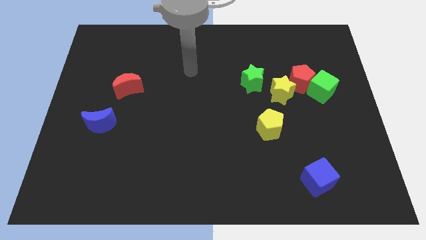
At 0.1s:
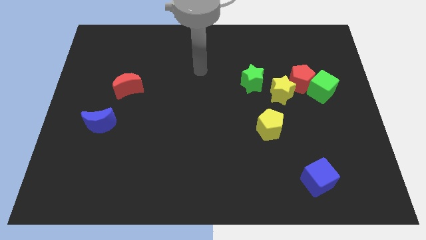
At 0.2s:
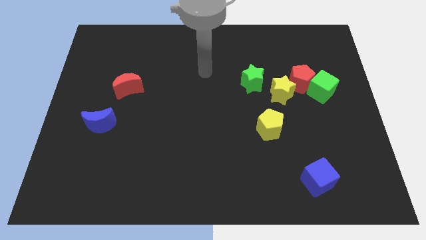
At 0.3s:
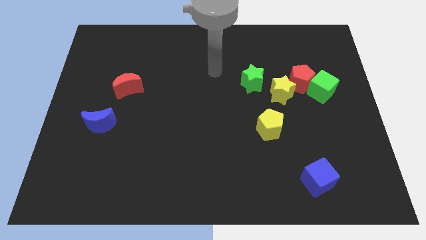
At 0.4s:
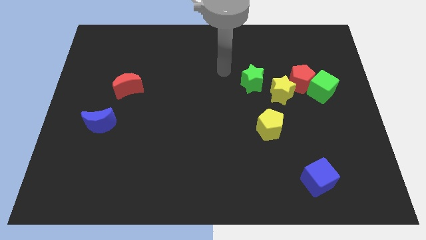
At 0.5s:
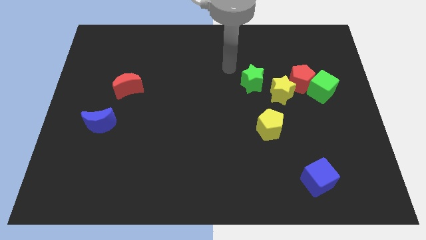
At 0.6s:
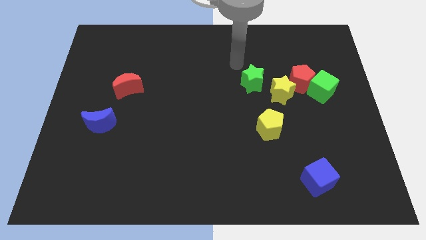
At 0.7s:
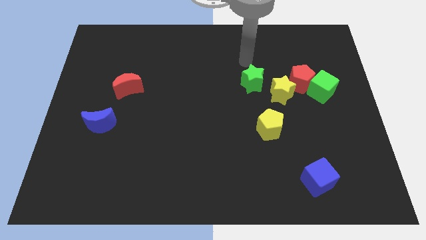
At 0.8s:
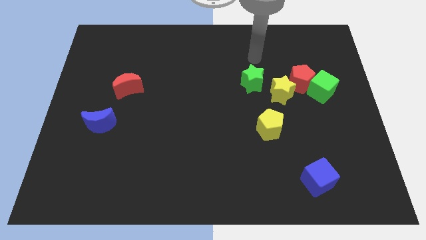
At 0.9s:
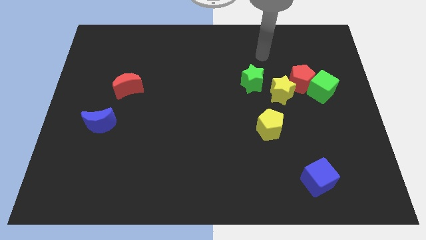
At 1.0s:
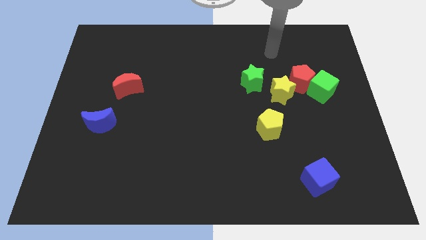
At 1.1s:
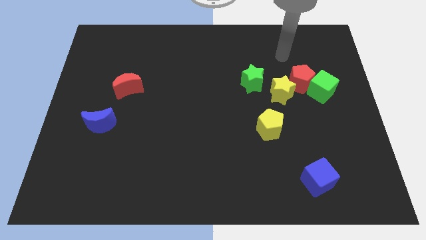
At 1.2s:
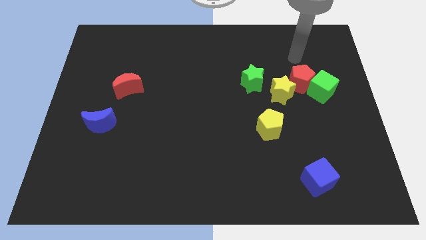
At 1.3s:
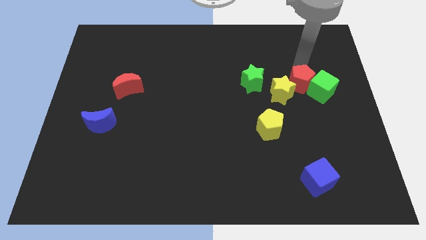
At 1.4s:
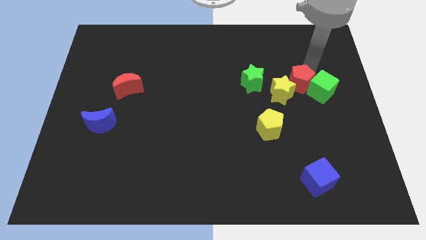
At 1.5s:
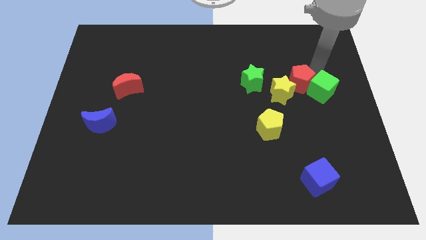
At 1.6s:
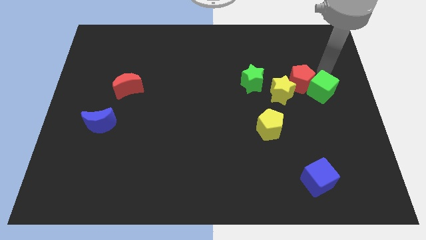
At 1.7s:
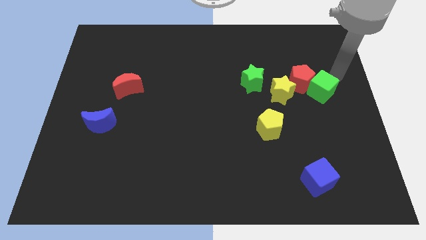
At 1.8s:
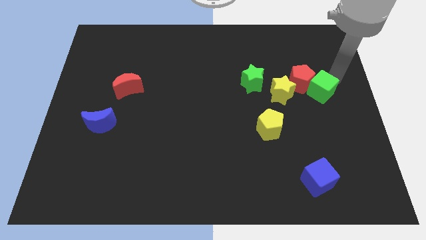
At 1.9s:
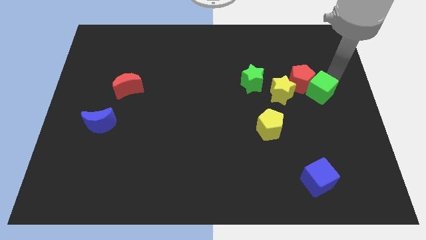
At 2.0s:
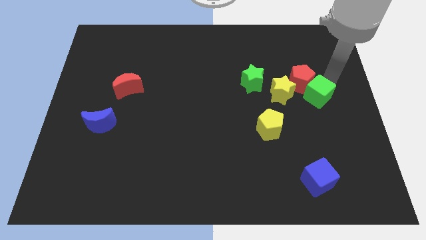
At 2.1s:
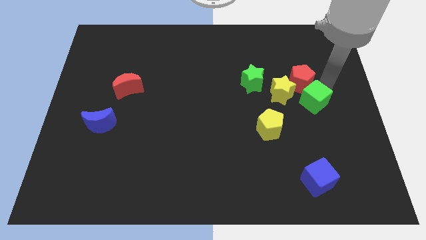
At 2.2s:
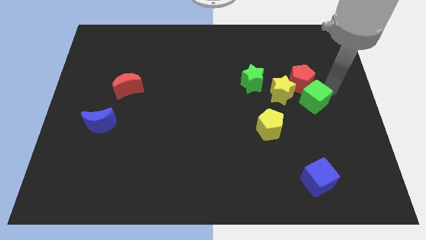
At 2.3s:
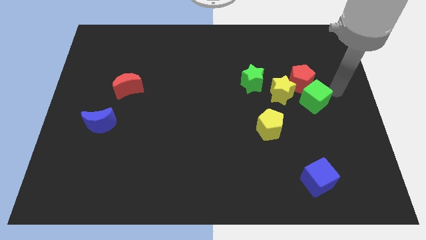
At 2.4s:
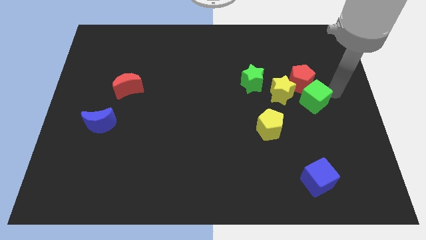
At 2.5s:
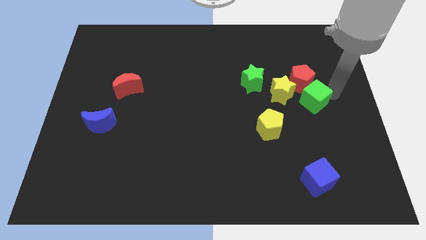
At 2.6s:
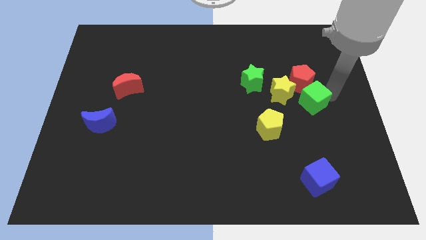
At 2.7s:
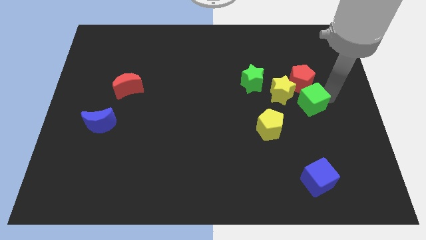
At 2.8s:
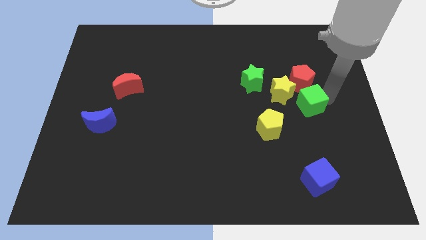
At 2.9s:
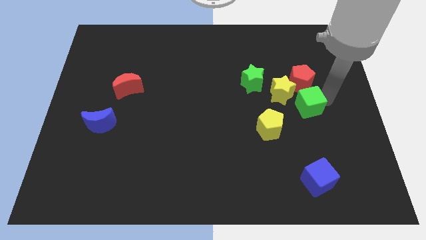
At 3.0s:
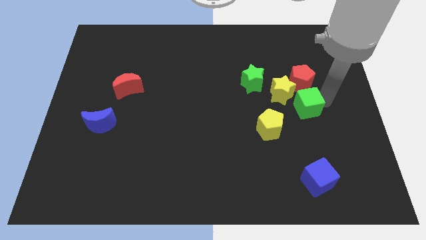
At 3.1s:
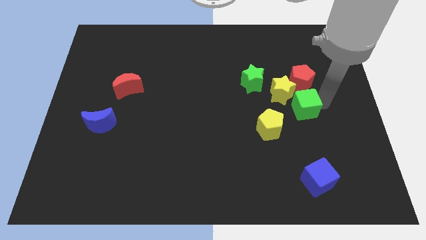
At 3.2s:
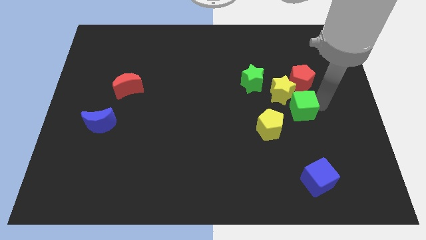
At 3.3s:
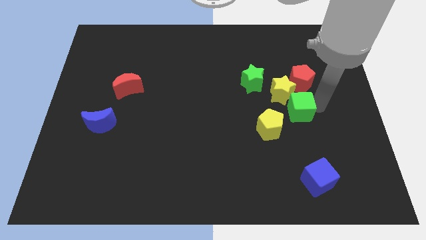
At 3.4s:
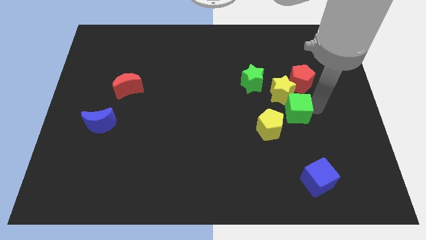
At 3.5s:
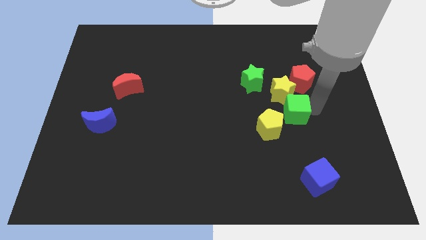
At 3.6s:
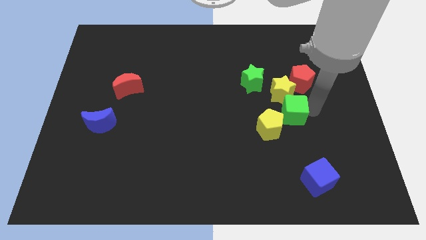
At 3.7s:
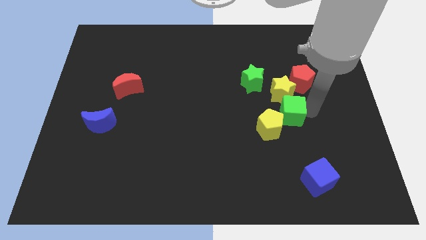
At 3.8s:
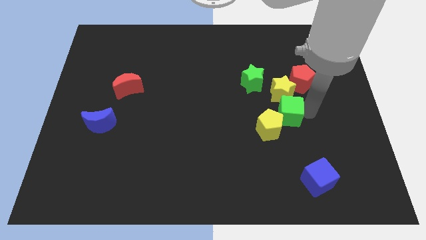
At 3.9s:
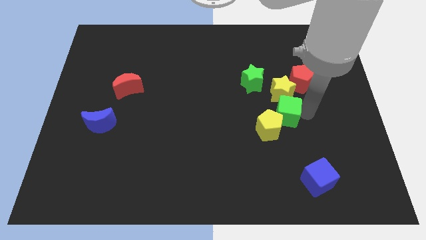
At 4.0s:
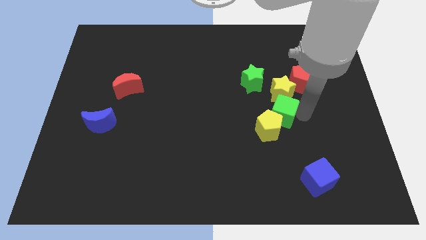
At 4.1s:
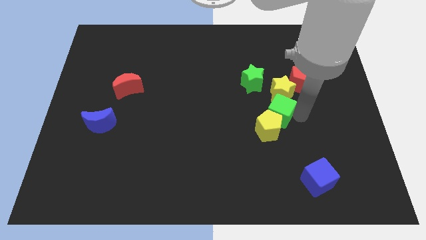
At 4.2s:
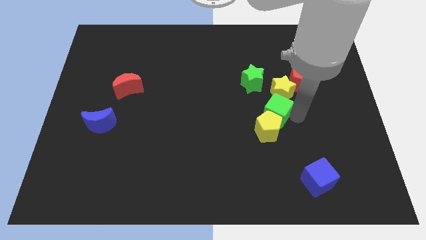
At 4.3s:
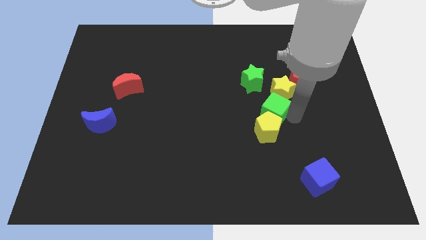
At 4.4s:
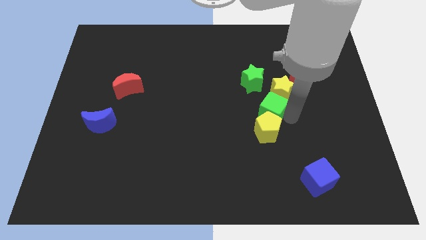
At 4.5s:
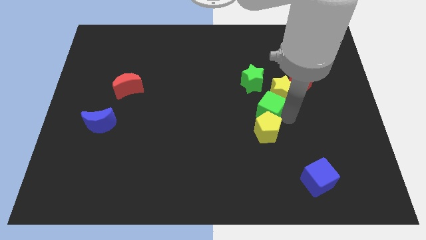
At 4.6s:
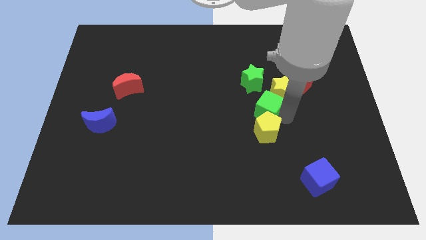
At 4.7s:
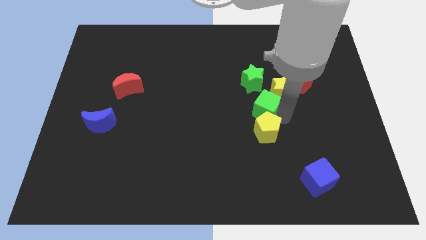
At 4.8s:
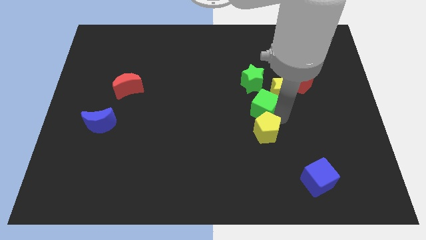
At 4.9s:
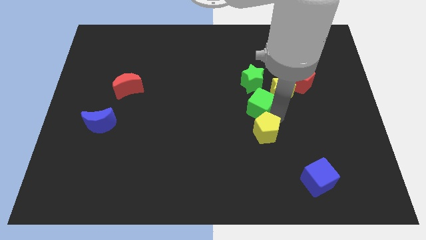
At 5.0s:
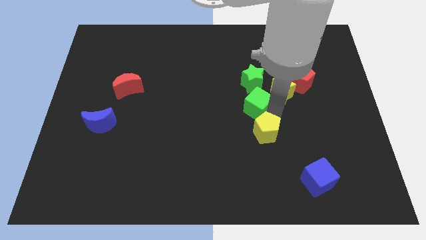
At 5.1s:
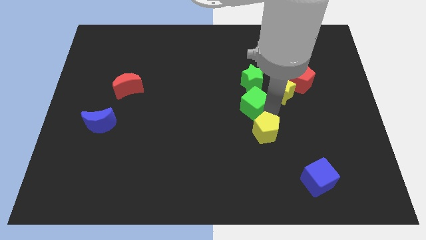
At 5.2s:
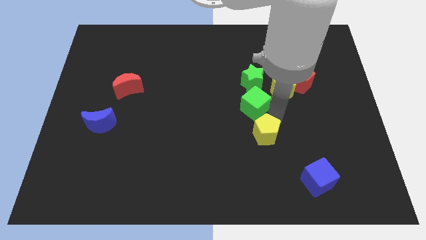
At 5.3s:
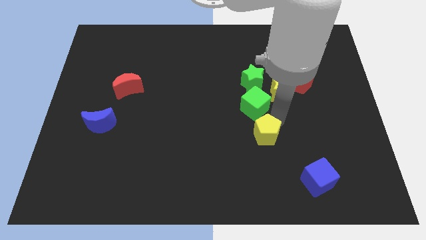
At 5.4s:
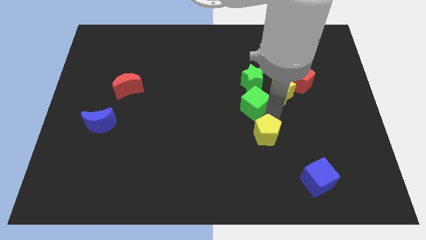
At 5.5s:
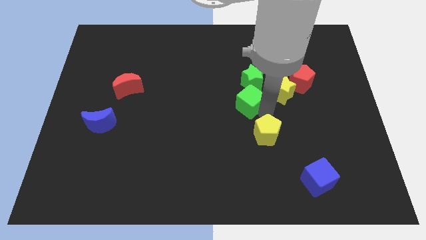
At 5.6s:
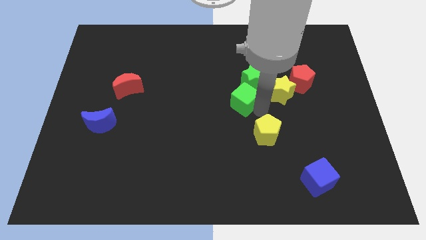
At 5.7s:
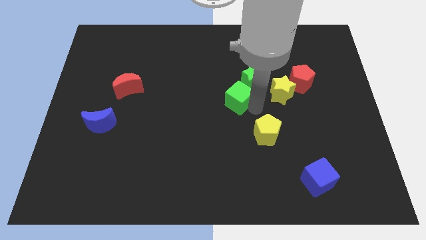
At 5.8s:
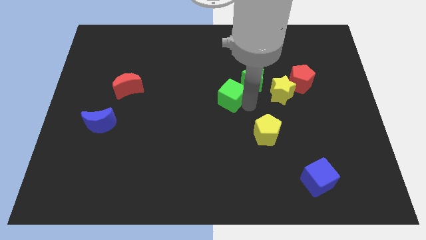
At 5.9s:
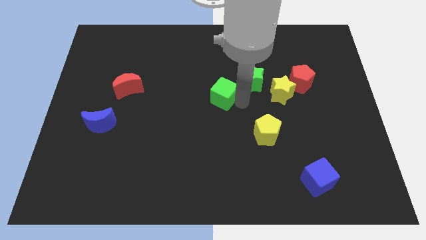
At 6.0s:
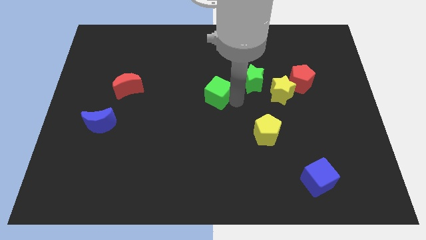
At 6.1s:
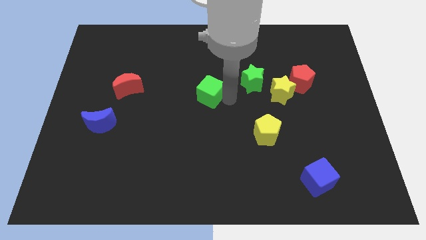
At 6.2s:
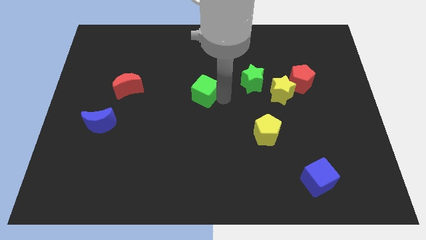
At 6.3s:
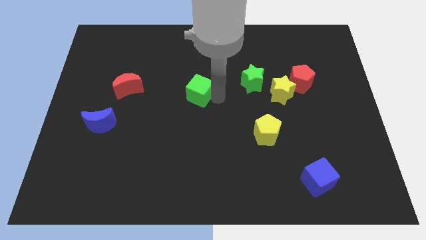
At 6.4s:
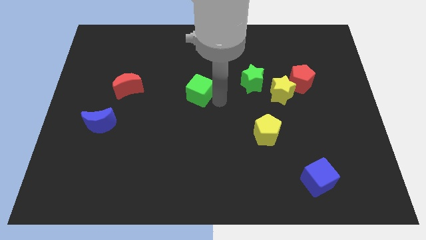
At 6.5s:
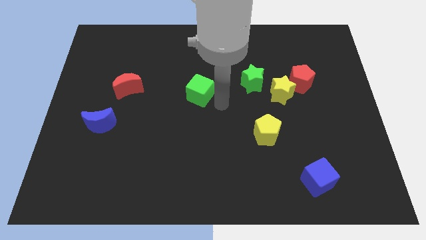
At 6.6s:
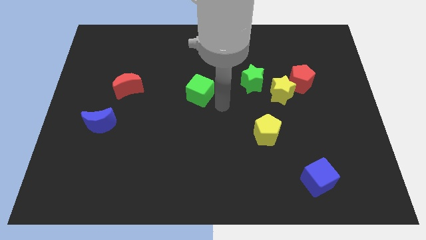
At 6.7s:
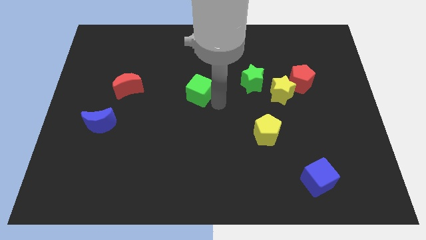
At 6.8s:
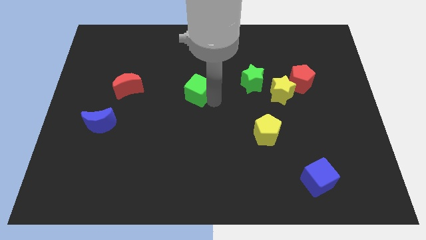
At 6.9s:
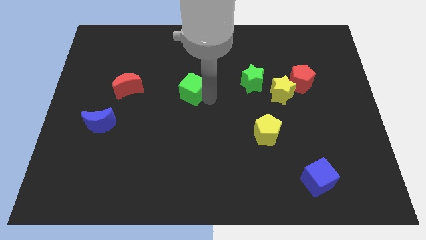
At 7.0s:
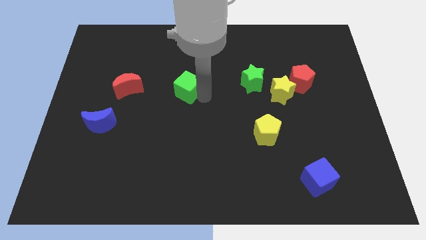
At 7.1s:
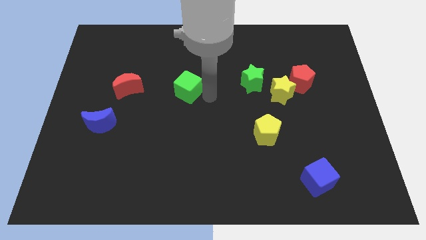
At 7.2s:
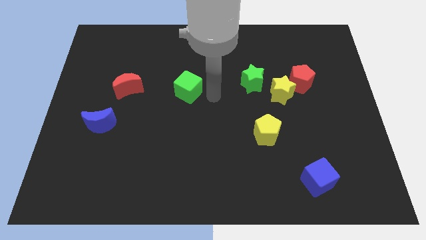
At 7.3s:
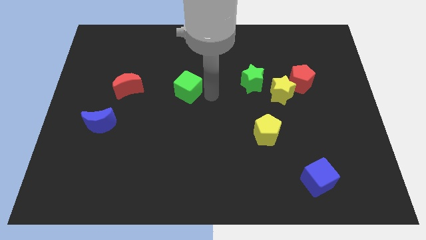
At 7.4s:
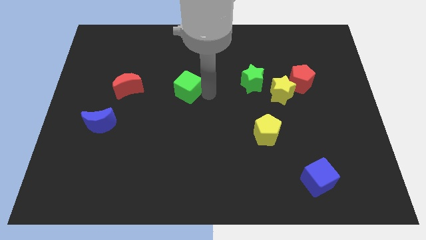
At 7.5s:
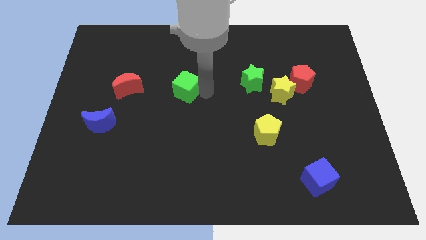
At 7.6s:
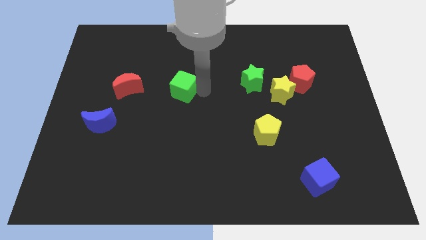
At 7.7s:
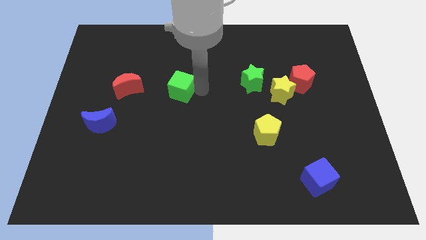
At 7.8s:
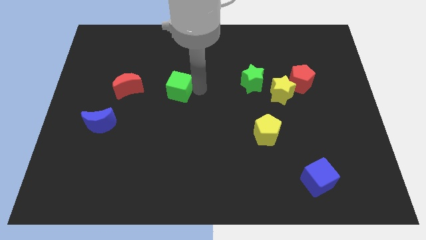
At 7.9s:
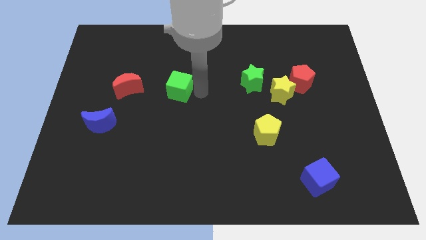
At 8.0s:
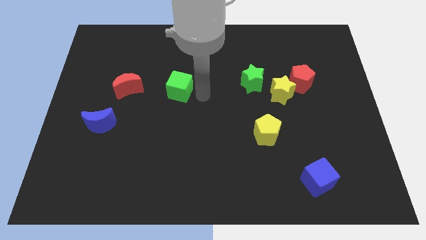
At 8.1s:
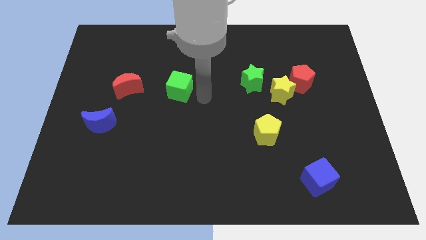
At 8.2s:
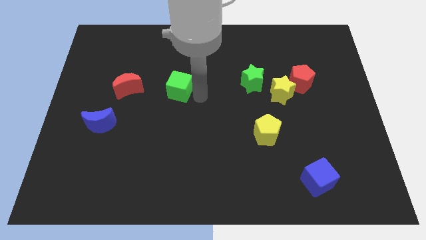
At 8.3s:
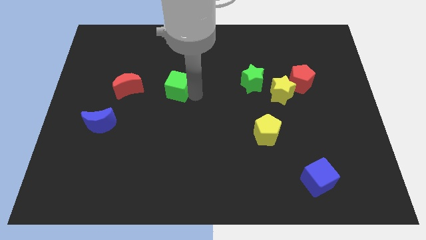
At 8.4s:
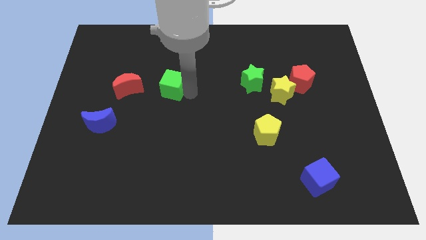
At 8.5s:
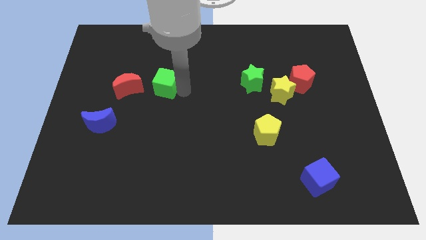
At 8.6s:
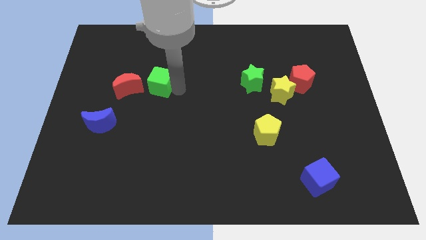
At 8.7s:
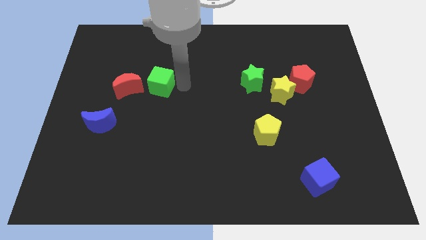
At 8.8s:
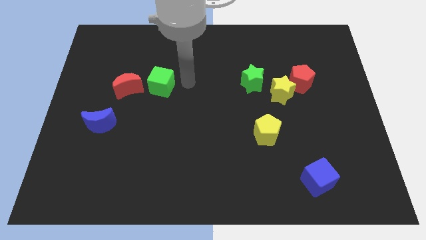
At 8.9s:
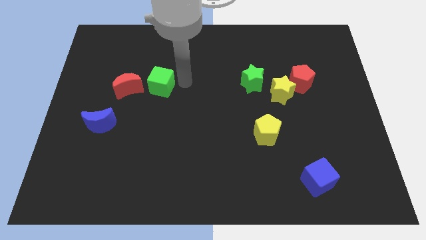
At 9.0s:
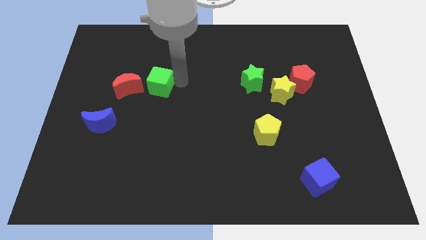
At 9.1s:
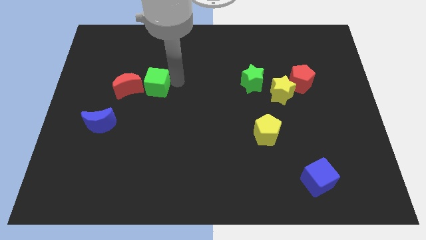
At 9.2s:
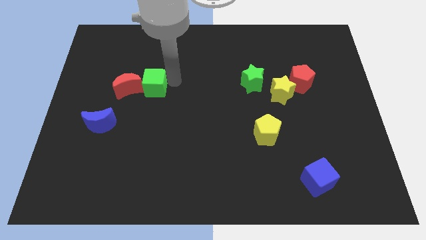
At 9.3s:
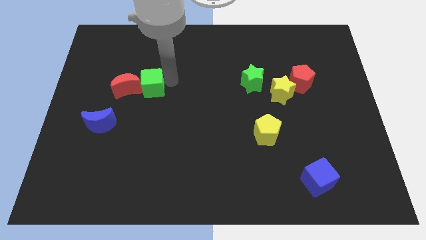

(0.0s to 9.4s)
move the green cube next to the red moon
